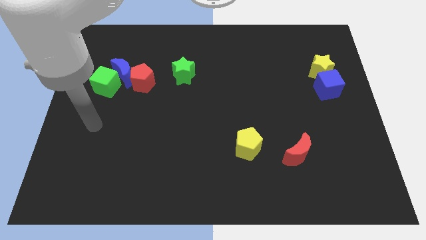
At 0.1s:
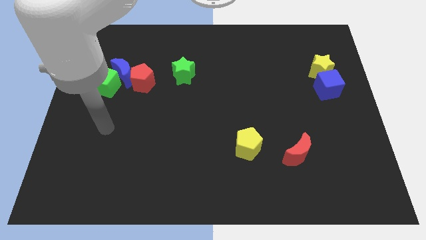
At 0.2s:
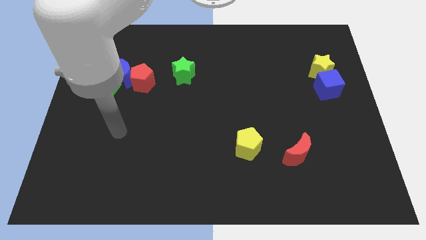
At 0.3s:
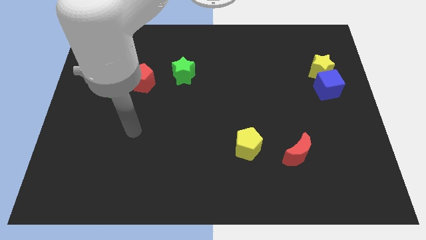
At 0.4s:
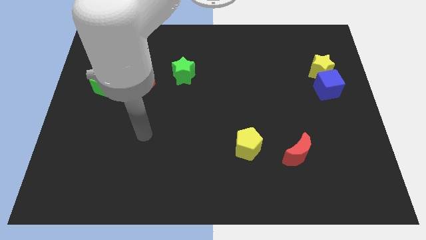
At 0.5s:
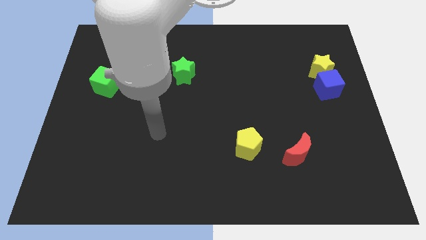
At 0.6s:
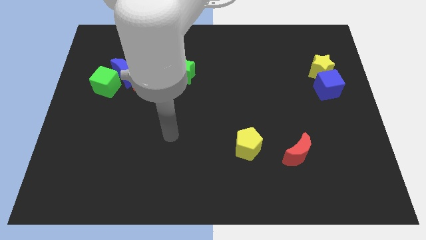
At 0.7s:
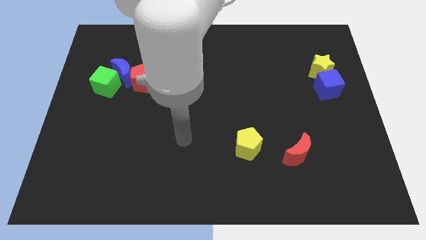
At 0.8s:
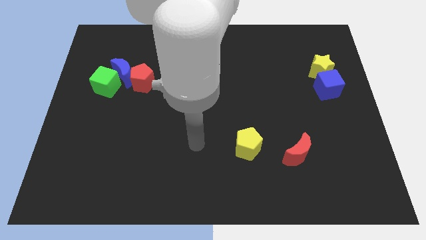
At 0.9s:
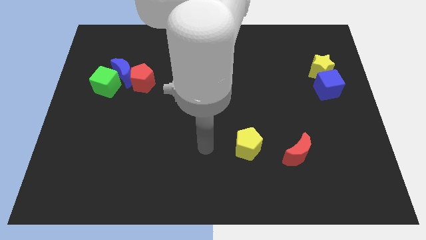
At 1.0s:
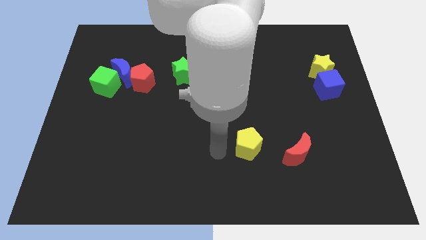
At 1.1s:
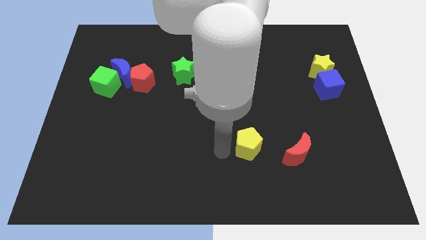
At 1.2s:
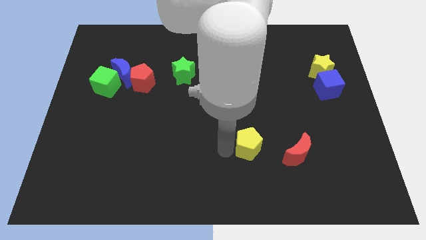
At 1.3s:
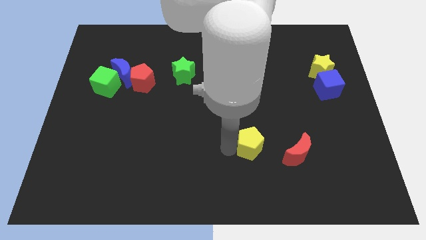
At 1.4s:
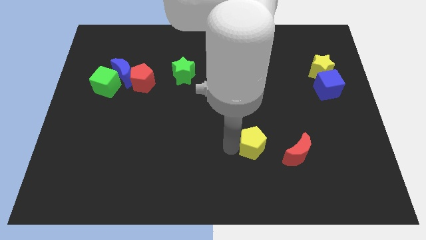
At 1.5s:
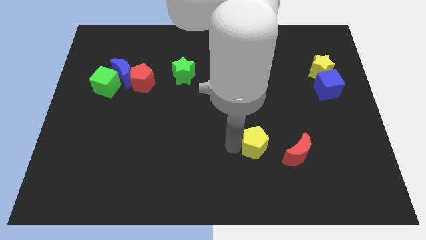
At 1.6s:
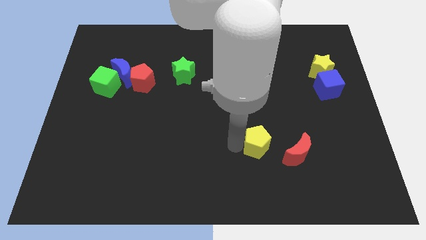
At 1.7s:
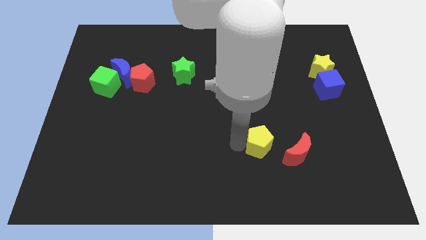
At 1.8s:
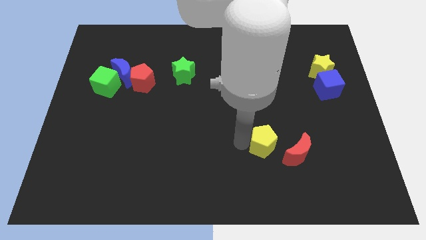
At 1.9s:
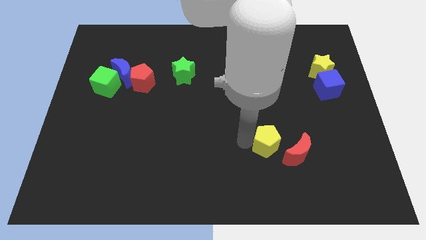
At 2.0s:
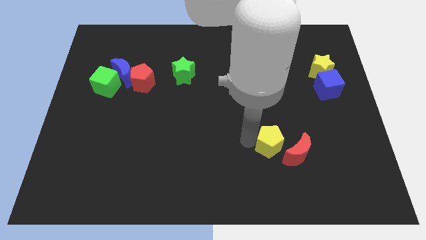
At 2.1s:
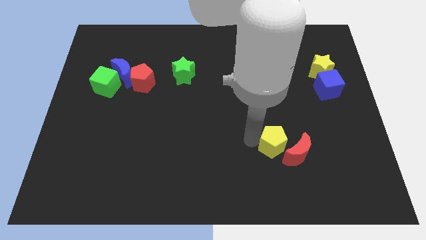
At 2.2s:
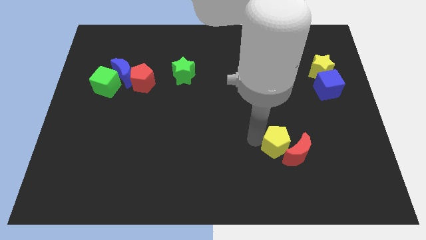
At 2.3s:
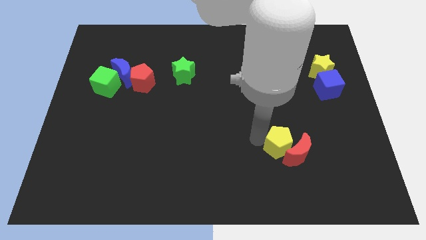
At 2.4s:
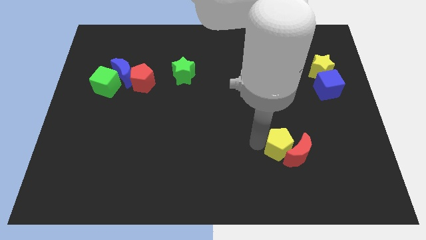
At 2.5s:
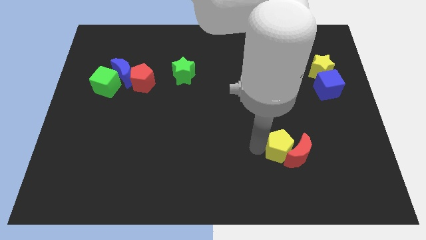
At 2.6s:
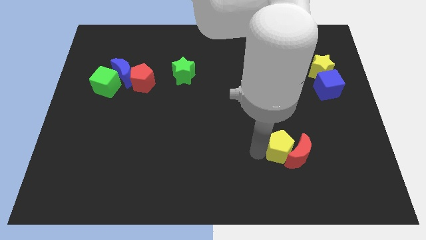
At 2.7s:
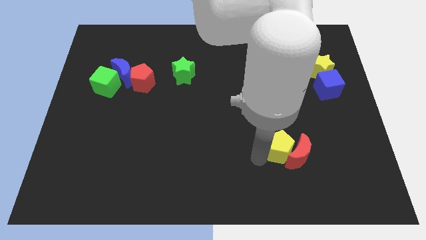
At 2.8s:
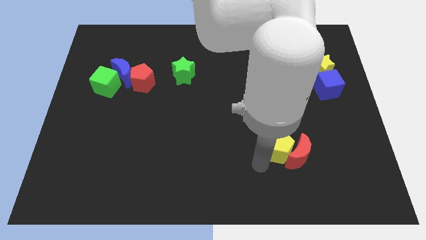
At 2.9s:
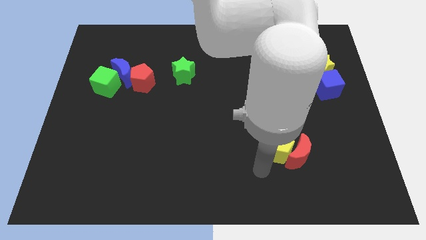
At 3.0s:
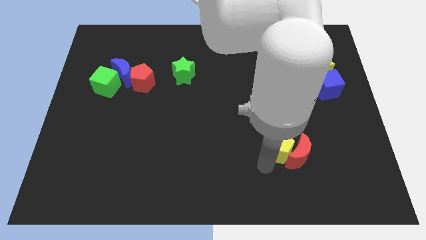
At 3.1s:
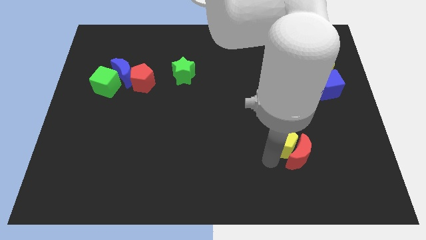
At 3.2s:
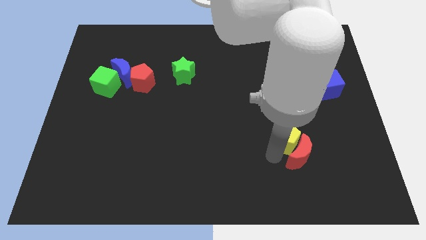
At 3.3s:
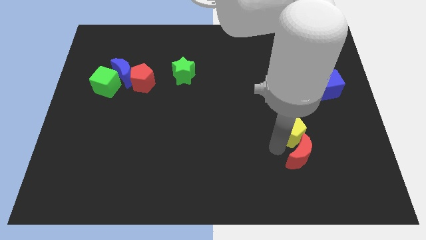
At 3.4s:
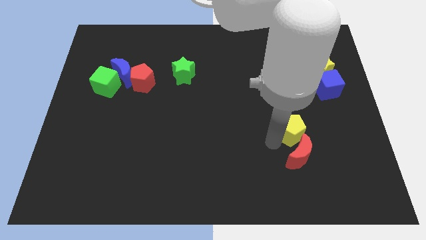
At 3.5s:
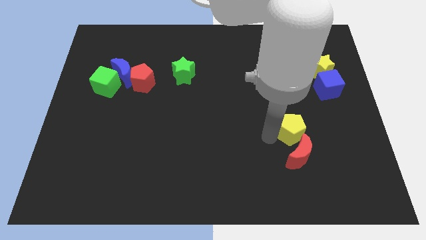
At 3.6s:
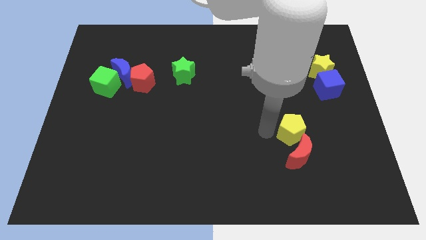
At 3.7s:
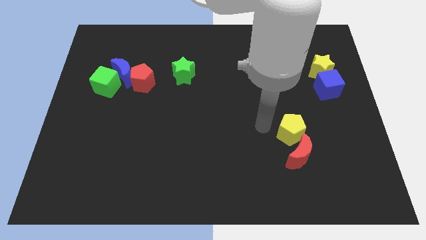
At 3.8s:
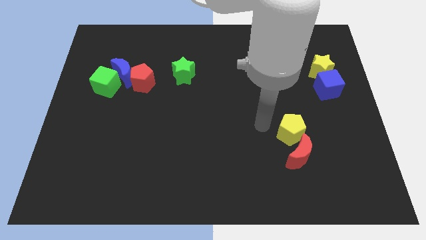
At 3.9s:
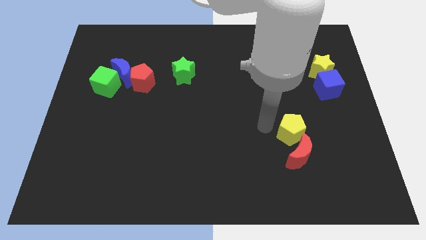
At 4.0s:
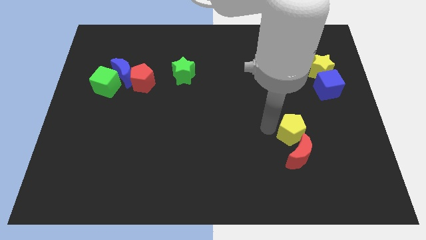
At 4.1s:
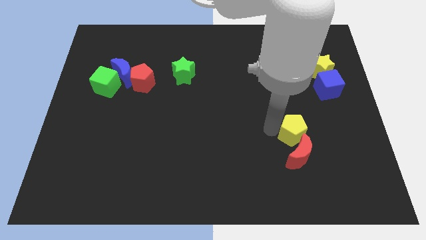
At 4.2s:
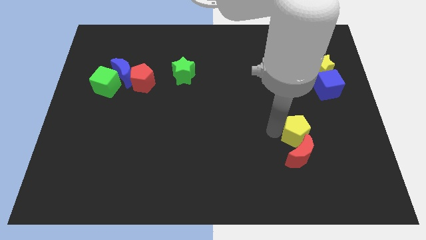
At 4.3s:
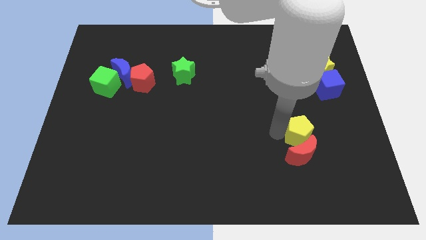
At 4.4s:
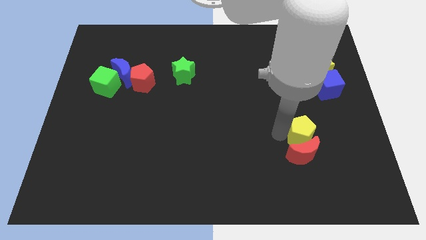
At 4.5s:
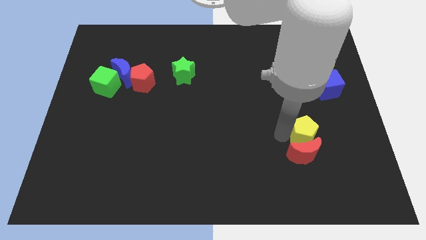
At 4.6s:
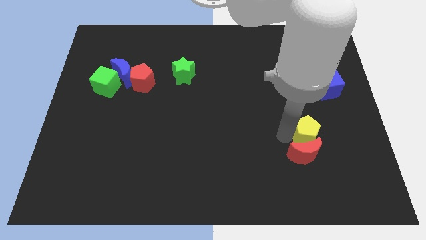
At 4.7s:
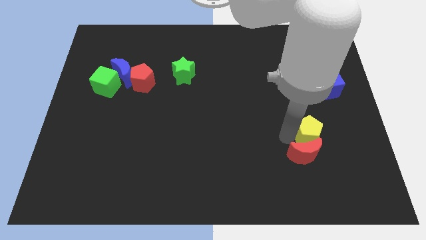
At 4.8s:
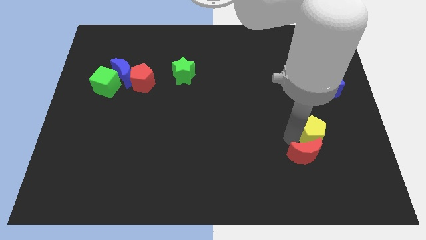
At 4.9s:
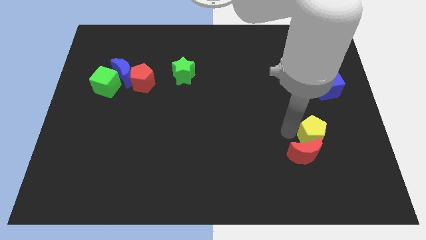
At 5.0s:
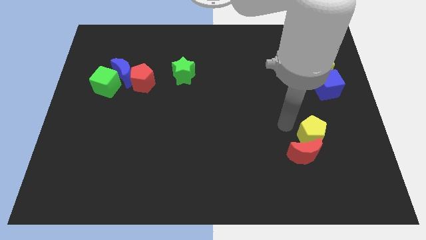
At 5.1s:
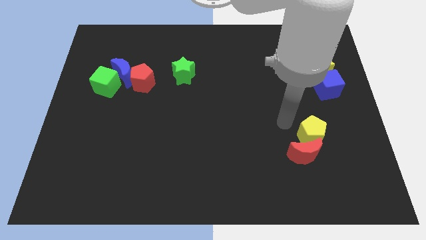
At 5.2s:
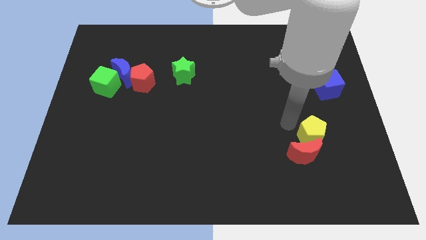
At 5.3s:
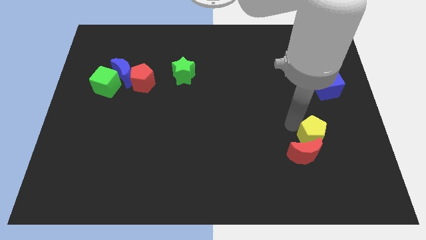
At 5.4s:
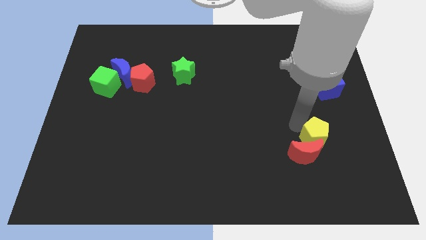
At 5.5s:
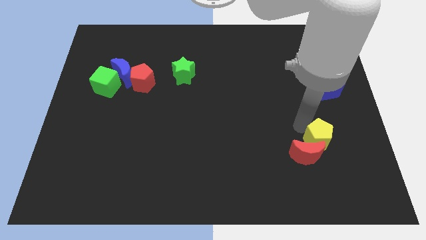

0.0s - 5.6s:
put the yellow pentagon just right of the red moon
